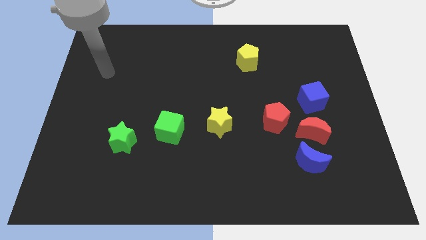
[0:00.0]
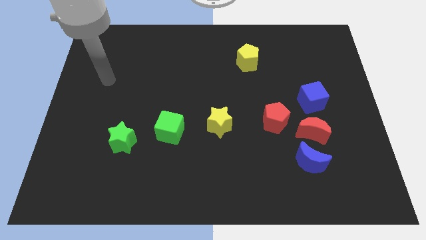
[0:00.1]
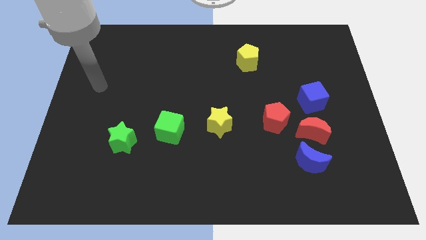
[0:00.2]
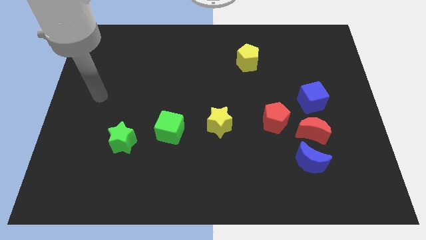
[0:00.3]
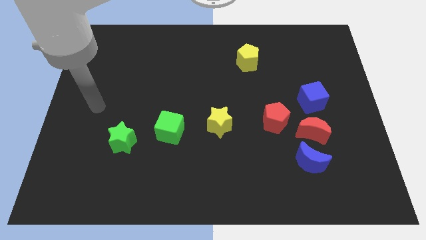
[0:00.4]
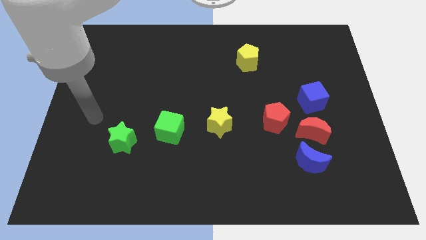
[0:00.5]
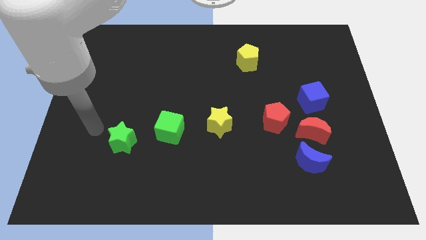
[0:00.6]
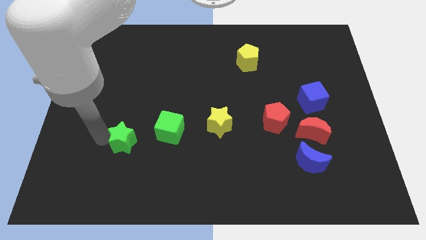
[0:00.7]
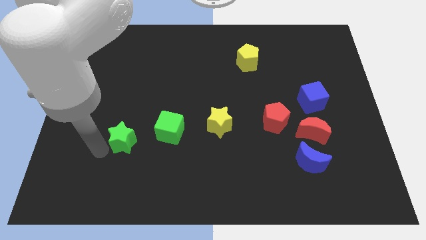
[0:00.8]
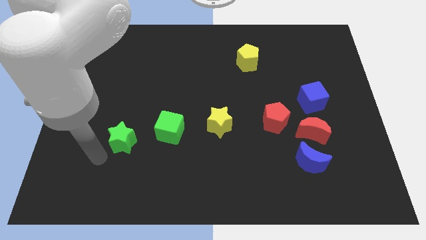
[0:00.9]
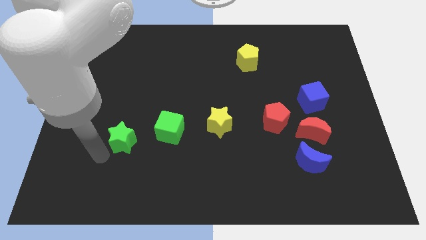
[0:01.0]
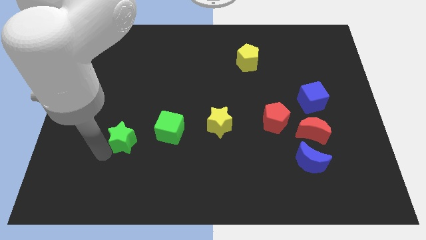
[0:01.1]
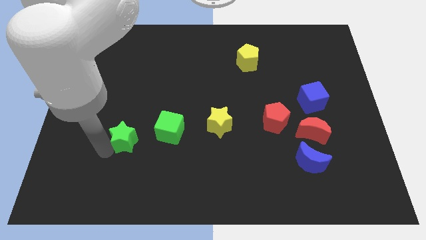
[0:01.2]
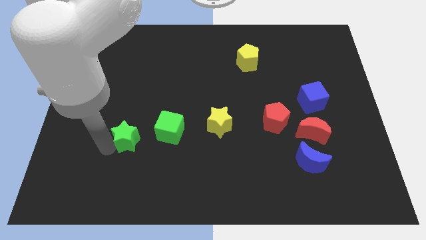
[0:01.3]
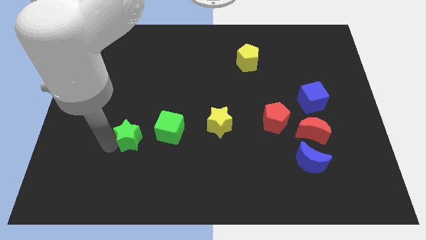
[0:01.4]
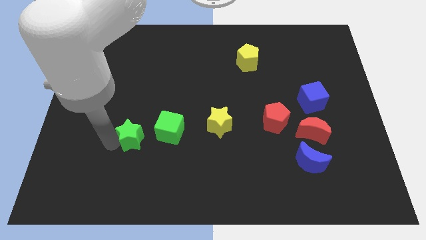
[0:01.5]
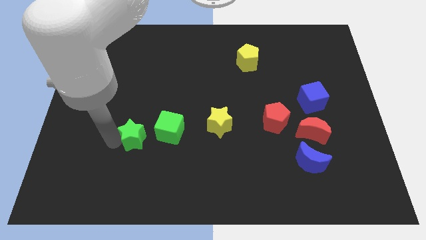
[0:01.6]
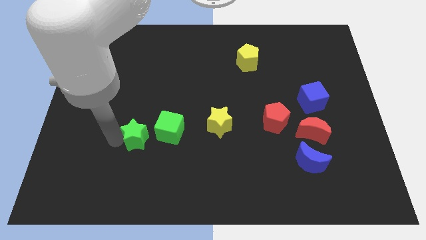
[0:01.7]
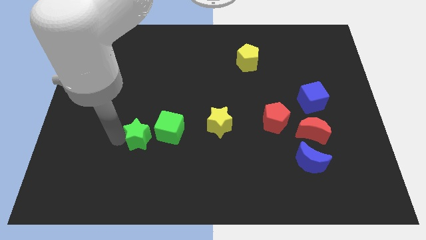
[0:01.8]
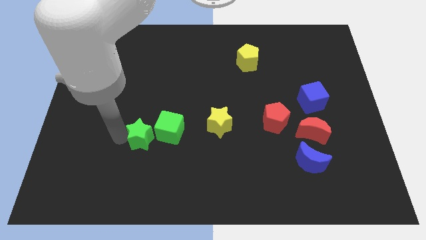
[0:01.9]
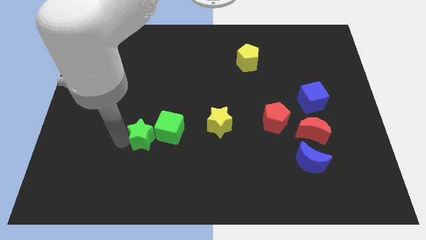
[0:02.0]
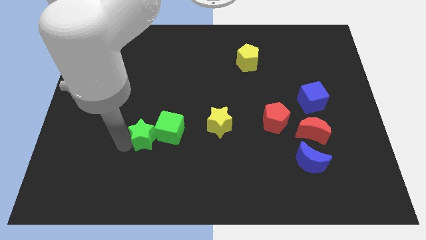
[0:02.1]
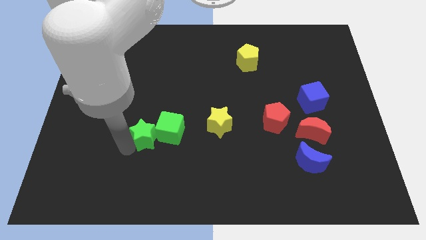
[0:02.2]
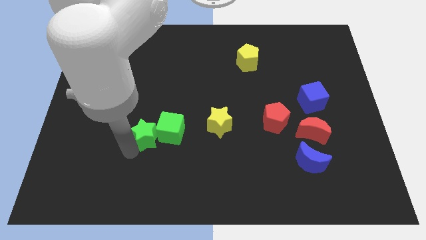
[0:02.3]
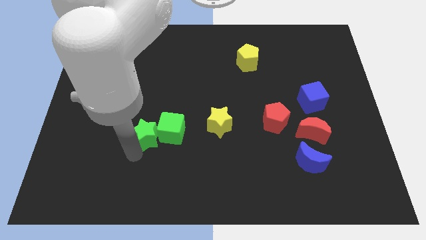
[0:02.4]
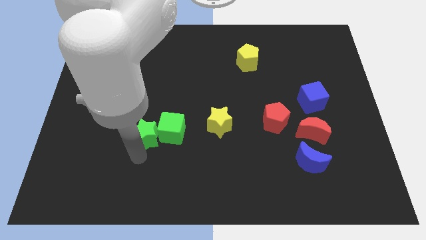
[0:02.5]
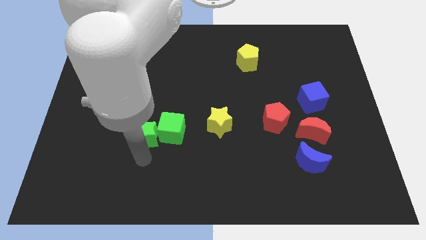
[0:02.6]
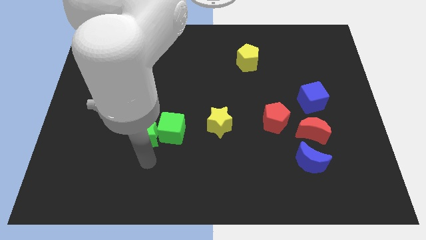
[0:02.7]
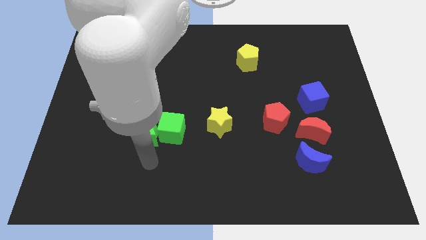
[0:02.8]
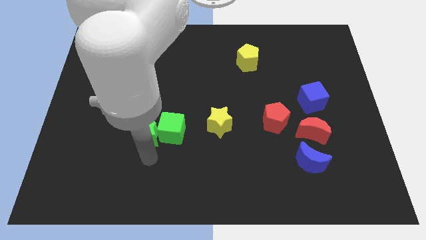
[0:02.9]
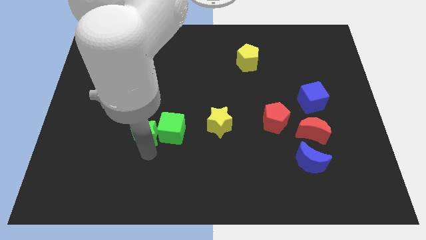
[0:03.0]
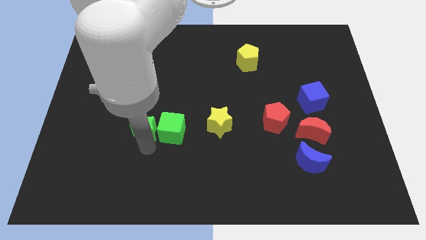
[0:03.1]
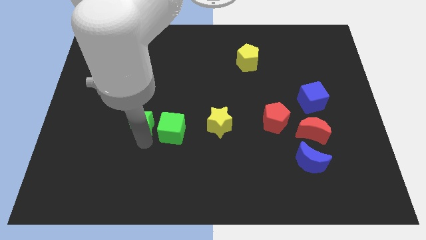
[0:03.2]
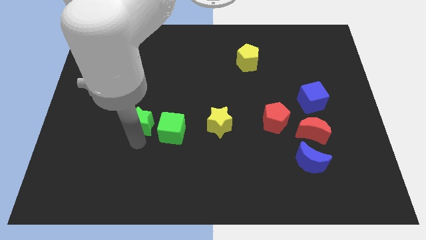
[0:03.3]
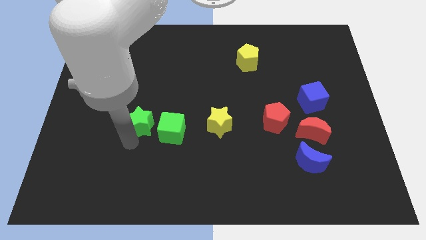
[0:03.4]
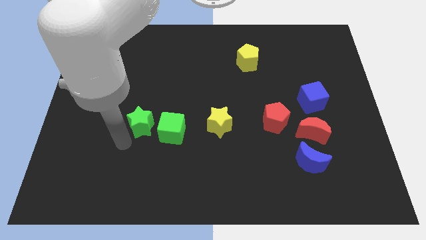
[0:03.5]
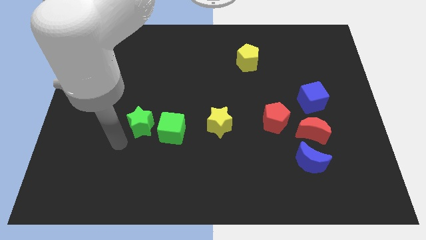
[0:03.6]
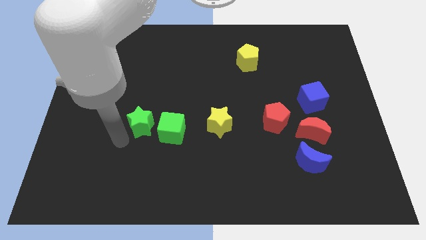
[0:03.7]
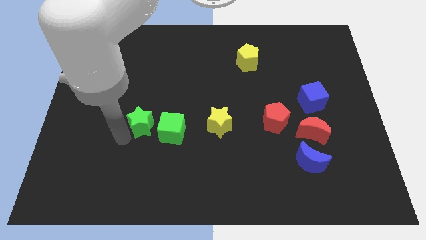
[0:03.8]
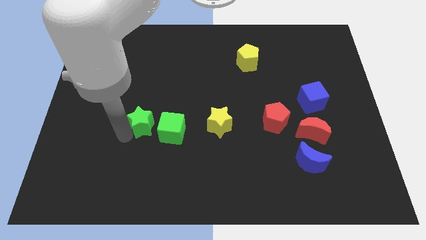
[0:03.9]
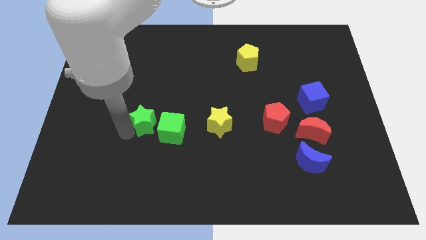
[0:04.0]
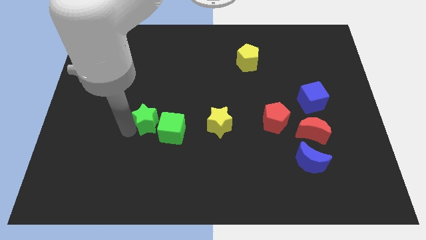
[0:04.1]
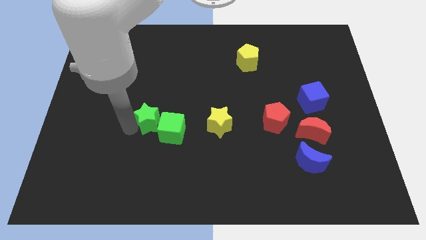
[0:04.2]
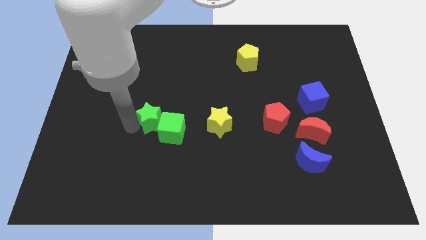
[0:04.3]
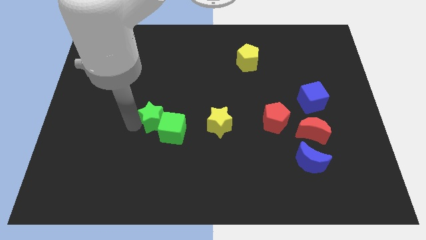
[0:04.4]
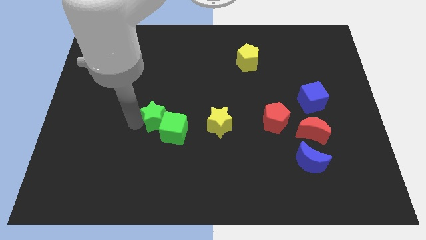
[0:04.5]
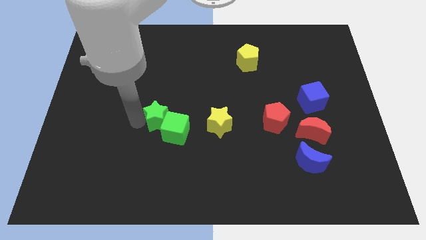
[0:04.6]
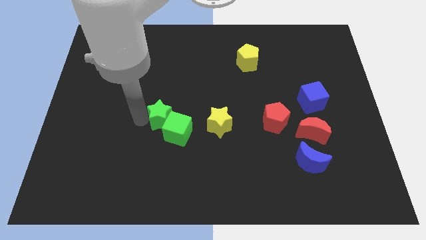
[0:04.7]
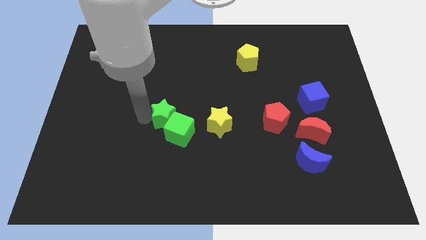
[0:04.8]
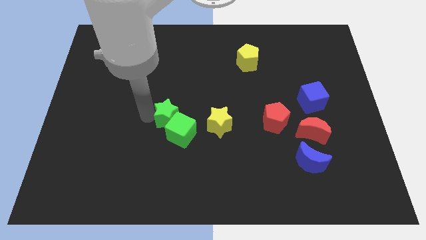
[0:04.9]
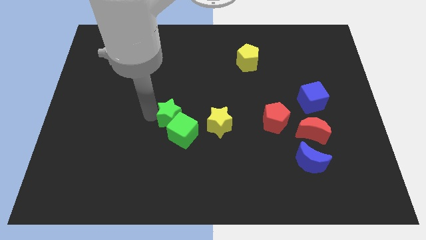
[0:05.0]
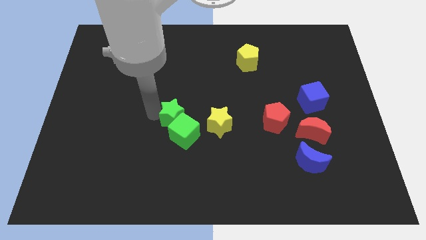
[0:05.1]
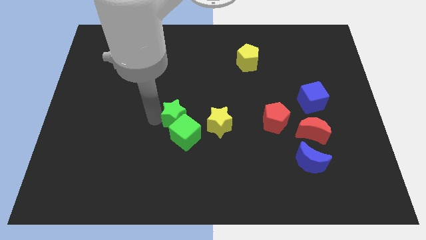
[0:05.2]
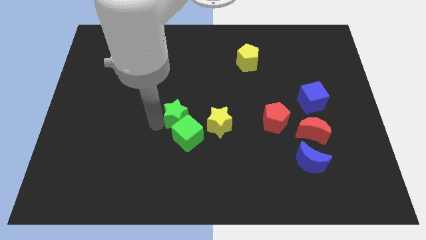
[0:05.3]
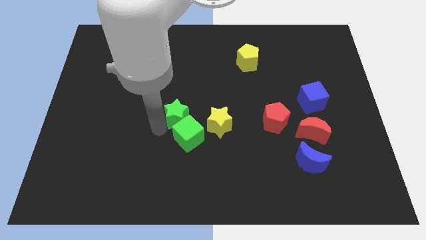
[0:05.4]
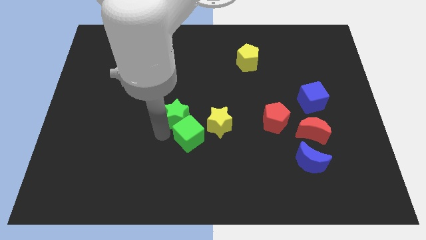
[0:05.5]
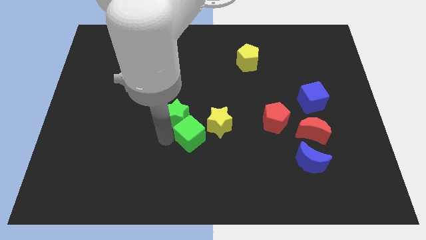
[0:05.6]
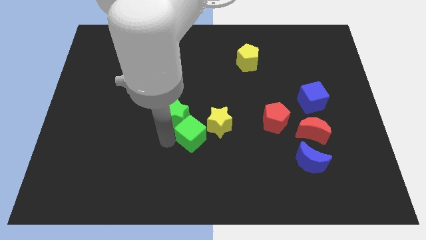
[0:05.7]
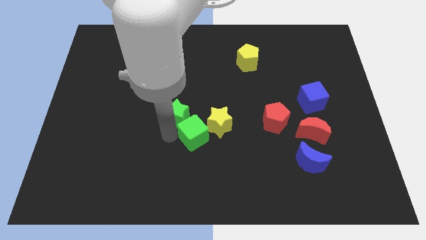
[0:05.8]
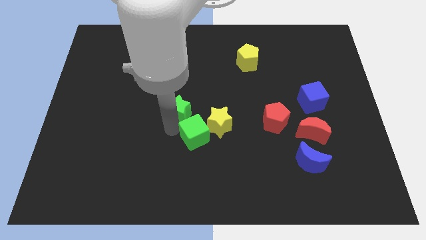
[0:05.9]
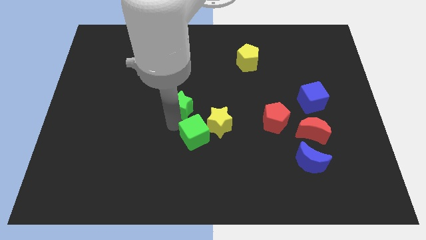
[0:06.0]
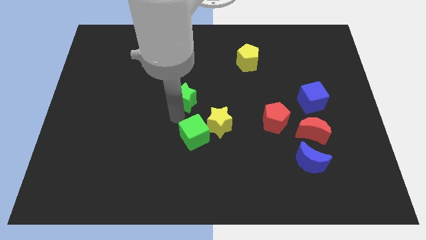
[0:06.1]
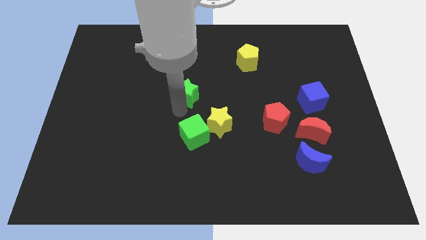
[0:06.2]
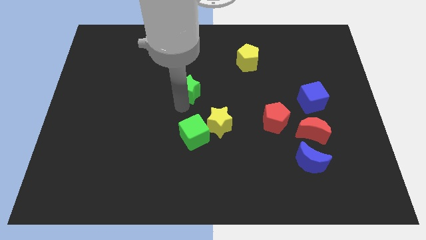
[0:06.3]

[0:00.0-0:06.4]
push the green star upwards and right

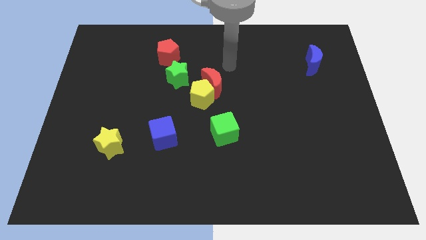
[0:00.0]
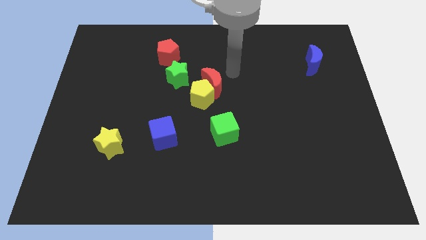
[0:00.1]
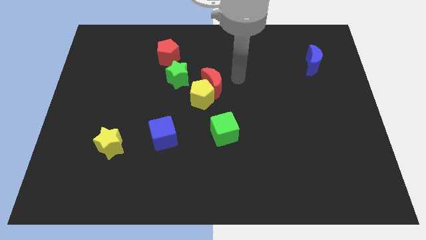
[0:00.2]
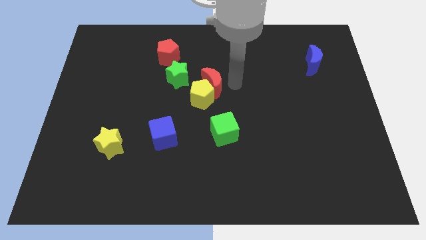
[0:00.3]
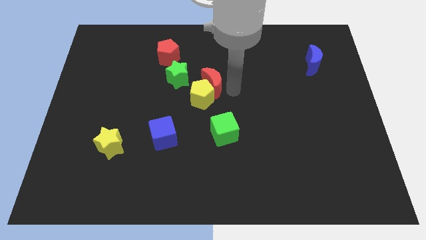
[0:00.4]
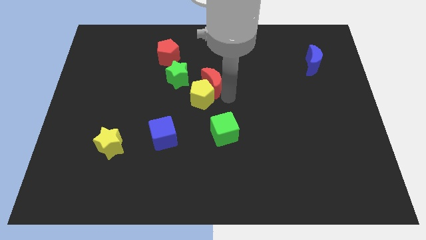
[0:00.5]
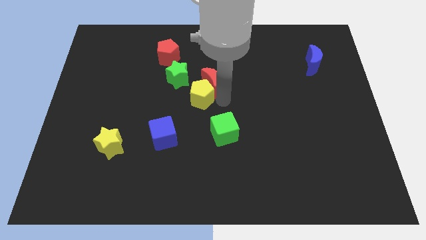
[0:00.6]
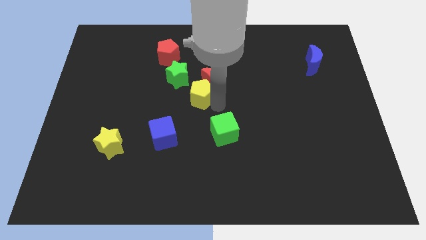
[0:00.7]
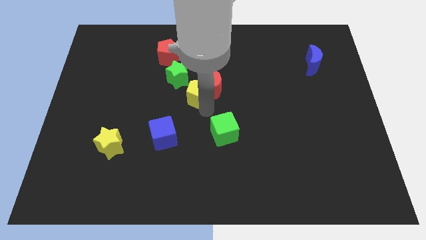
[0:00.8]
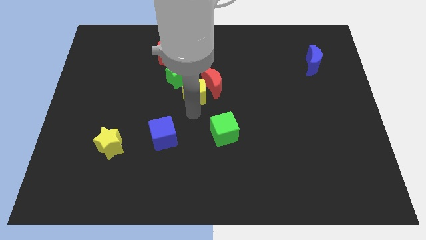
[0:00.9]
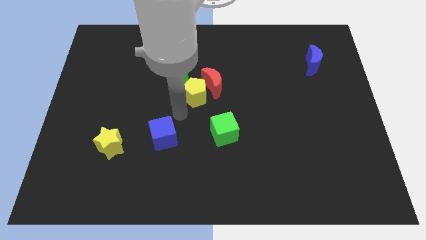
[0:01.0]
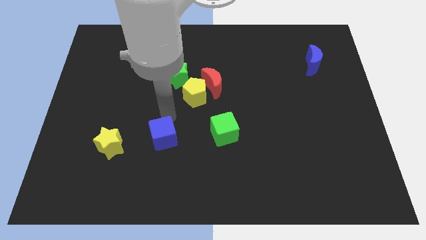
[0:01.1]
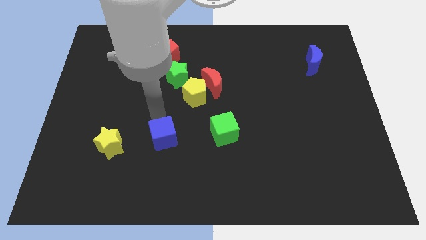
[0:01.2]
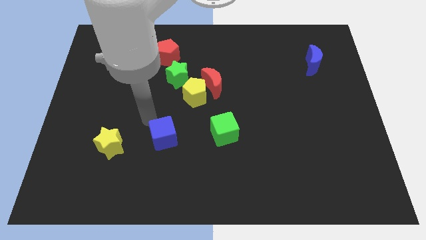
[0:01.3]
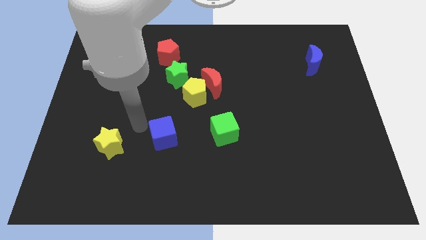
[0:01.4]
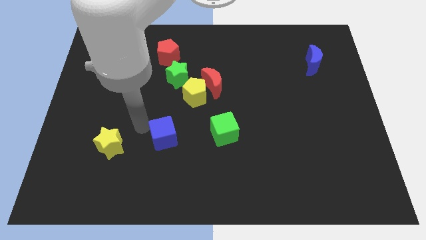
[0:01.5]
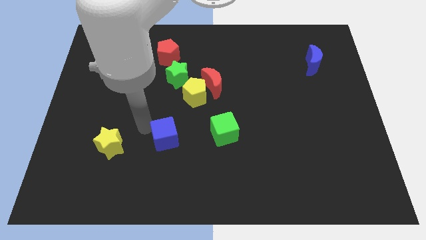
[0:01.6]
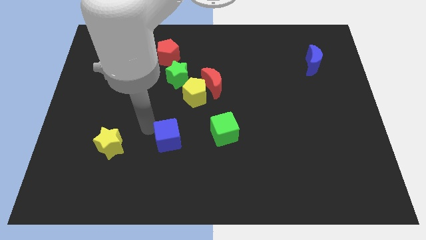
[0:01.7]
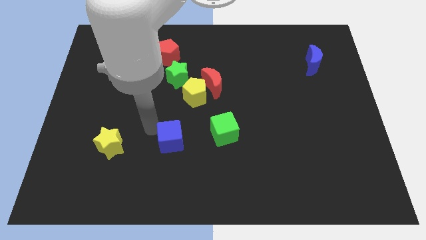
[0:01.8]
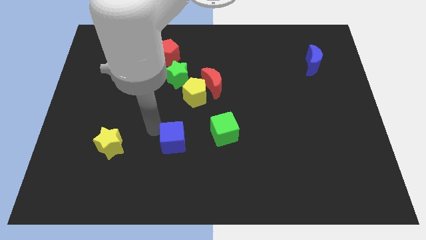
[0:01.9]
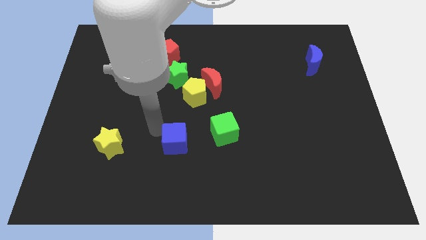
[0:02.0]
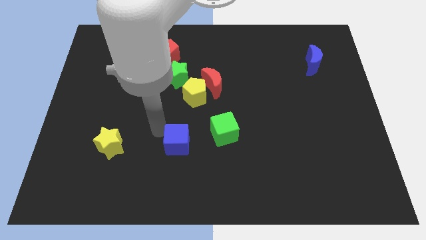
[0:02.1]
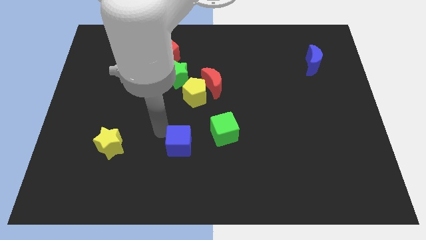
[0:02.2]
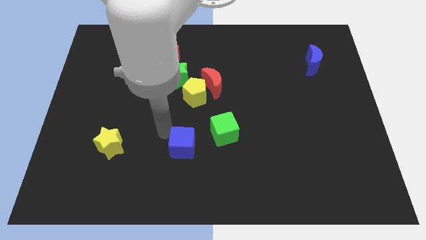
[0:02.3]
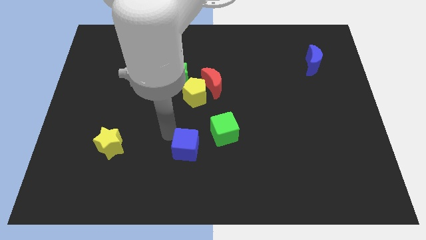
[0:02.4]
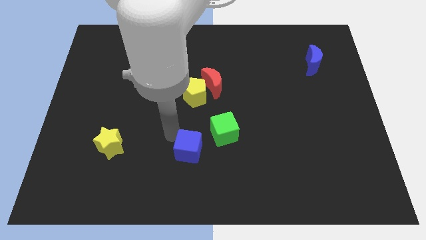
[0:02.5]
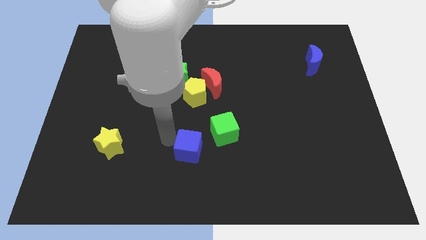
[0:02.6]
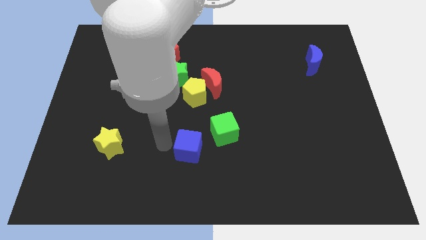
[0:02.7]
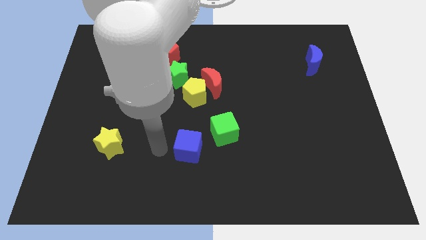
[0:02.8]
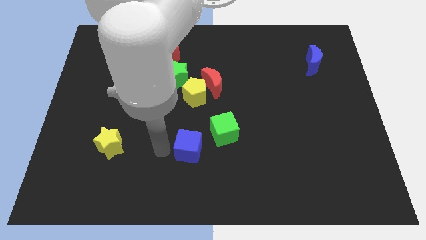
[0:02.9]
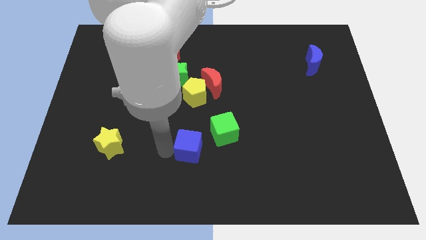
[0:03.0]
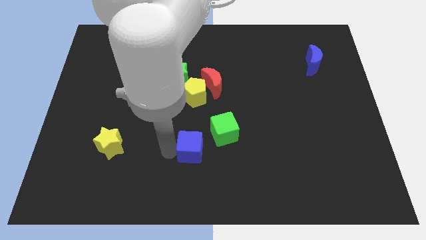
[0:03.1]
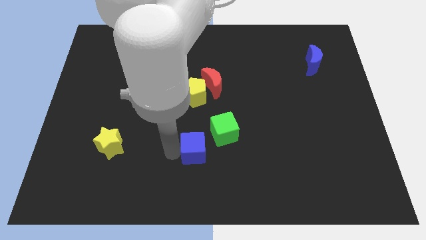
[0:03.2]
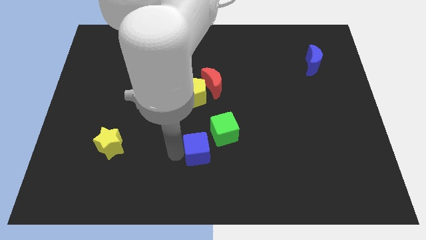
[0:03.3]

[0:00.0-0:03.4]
slightly push the blue cube right
